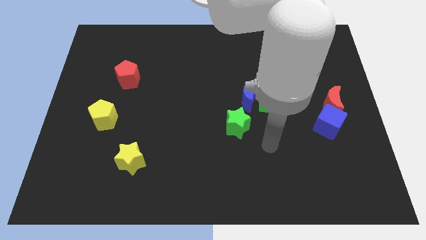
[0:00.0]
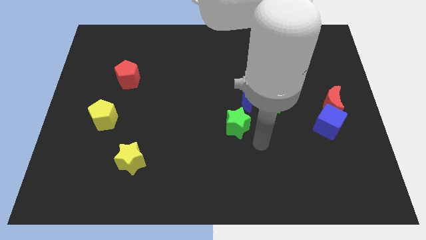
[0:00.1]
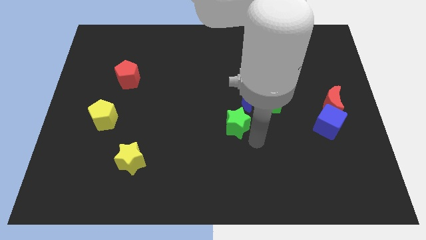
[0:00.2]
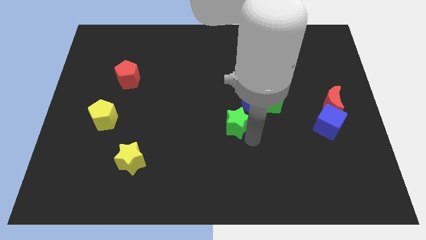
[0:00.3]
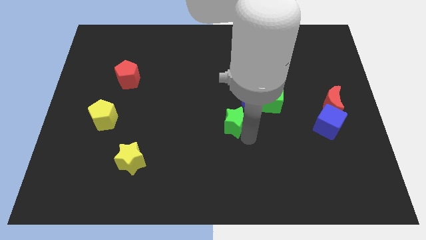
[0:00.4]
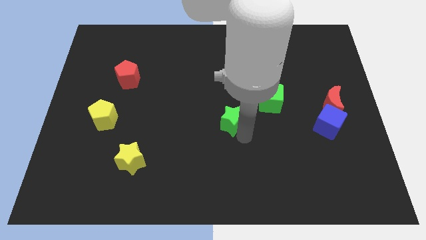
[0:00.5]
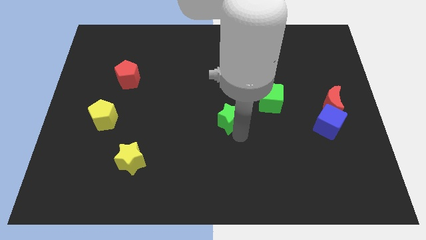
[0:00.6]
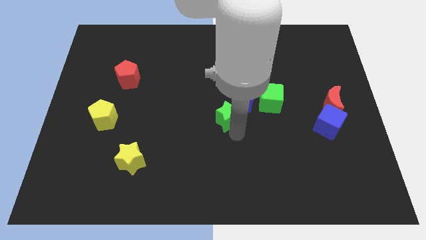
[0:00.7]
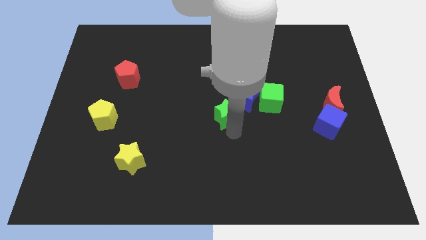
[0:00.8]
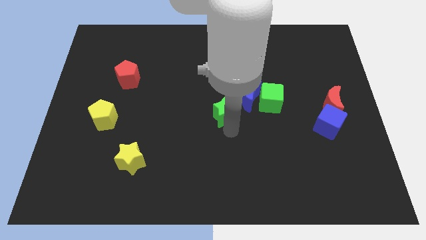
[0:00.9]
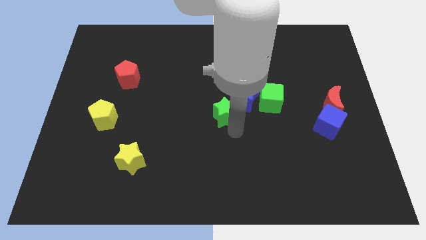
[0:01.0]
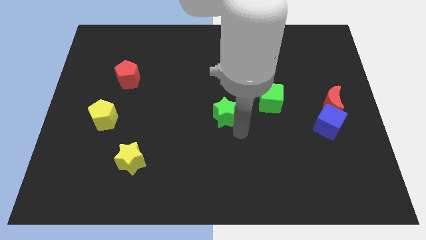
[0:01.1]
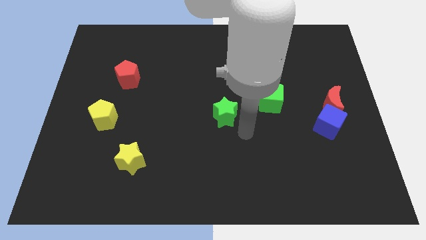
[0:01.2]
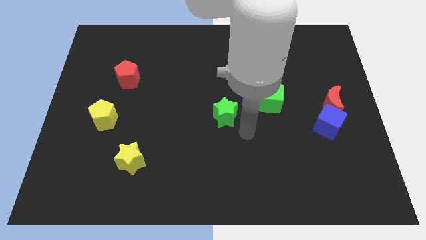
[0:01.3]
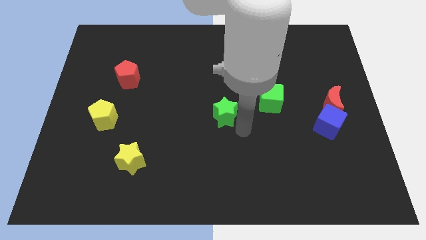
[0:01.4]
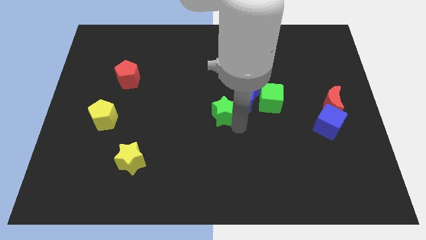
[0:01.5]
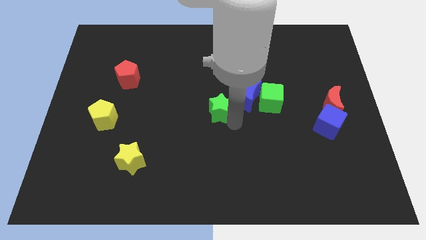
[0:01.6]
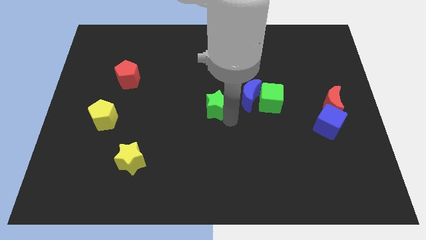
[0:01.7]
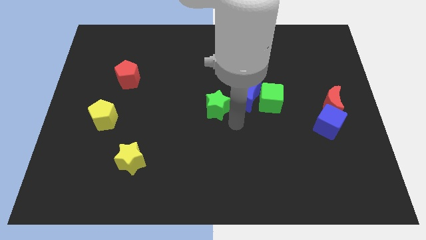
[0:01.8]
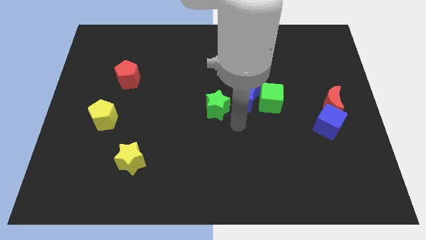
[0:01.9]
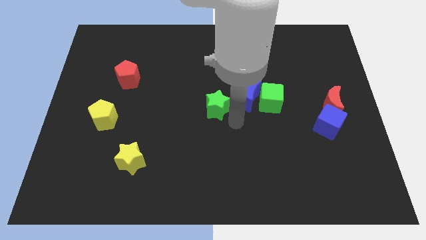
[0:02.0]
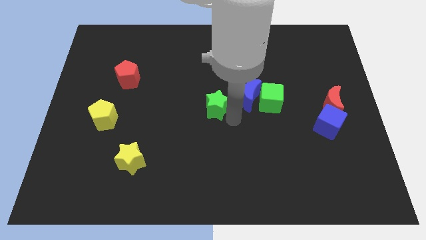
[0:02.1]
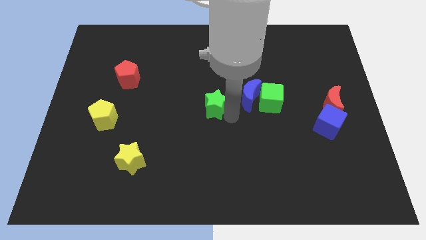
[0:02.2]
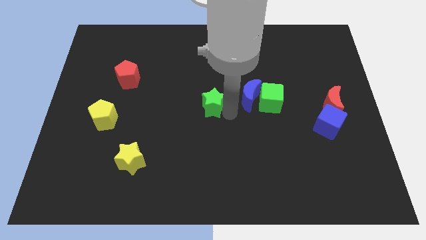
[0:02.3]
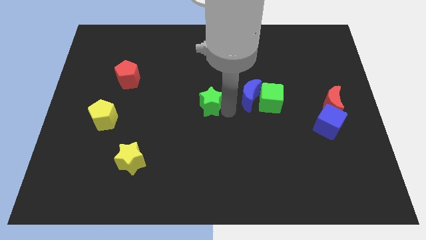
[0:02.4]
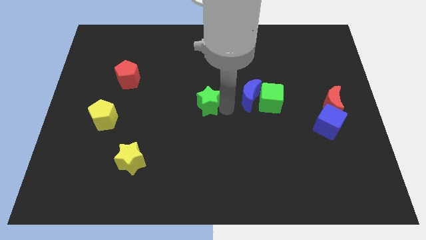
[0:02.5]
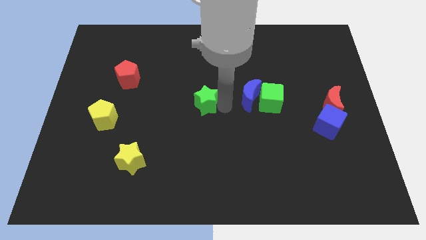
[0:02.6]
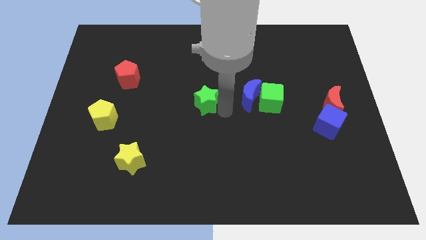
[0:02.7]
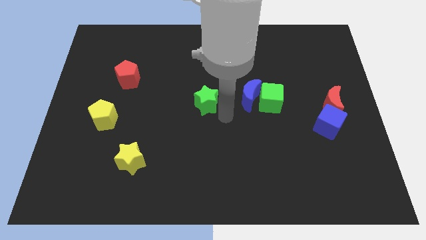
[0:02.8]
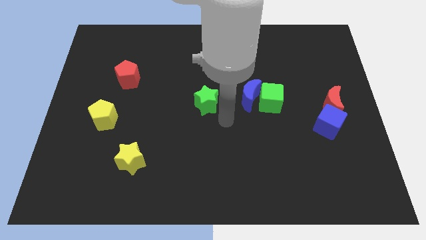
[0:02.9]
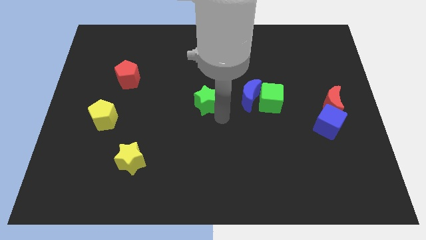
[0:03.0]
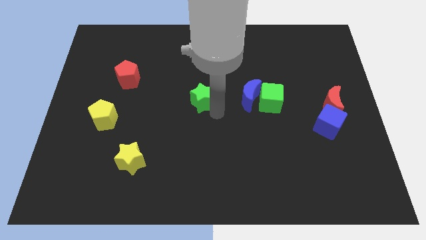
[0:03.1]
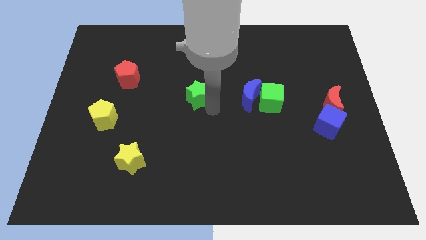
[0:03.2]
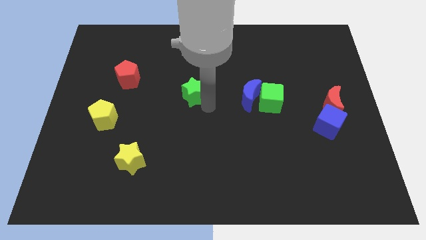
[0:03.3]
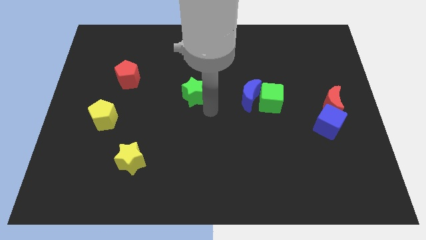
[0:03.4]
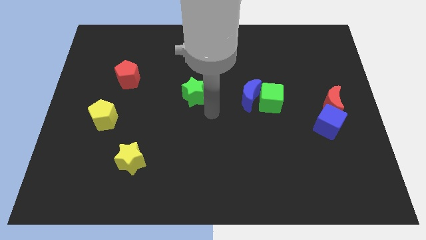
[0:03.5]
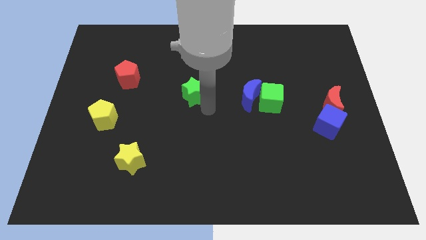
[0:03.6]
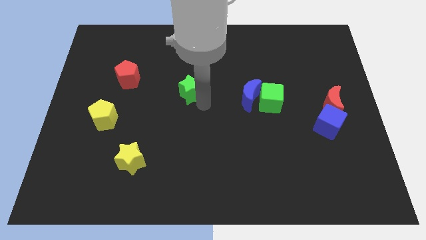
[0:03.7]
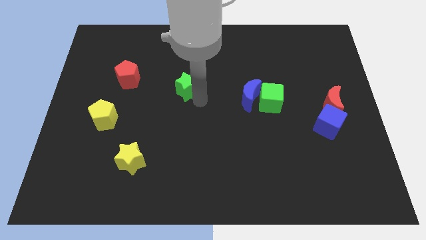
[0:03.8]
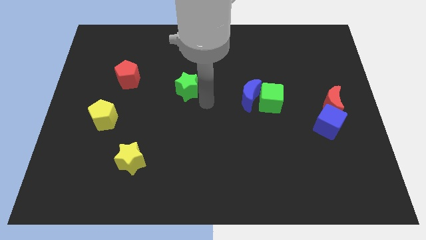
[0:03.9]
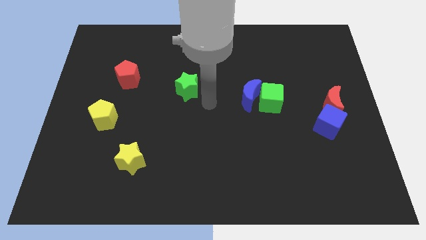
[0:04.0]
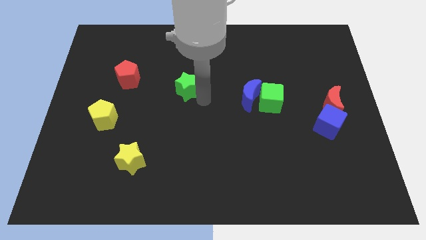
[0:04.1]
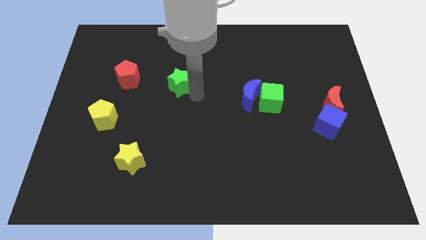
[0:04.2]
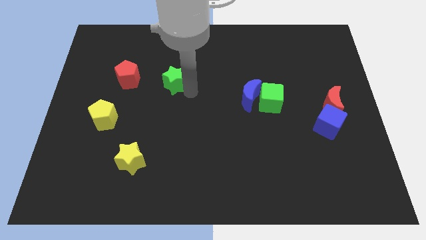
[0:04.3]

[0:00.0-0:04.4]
slide the green star upwards and to the left

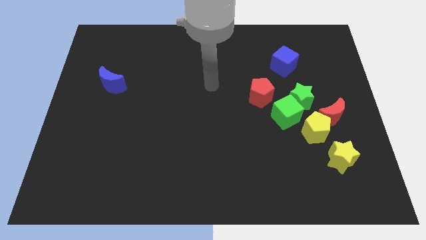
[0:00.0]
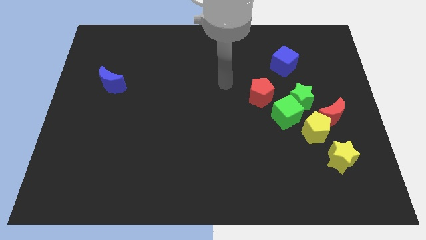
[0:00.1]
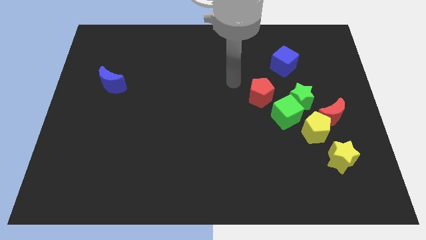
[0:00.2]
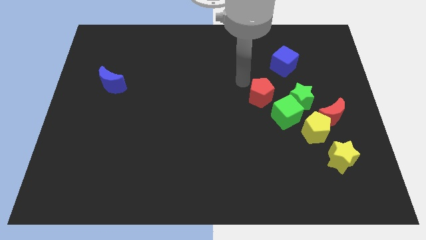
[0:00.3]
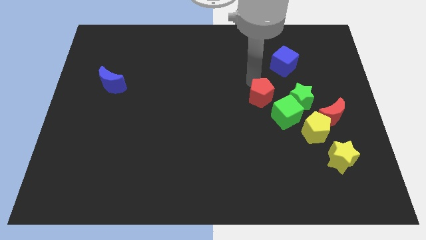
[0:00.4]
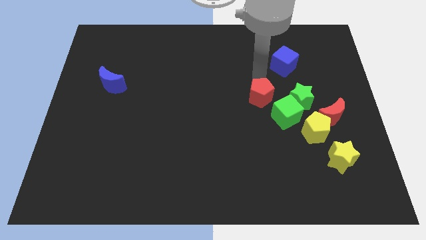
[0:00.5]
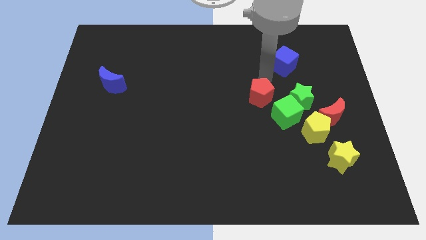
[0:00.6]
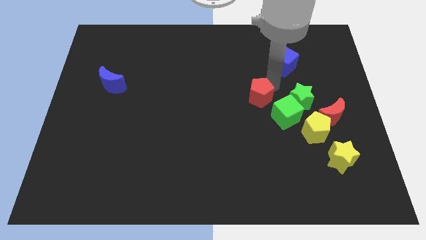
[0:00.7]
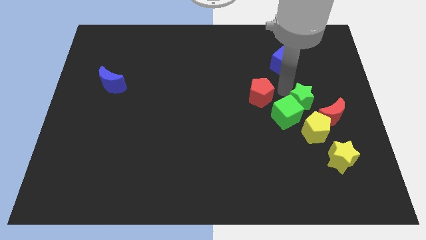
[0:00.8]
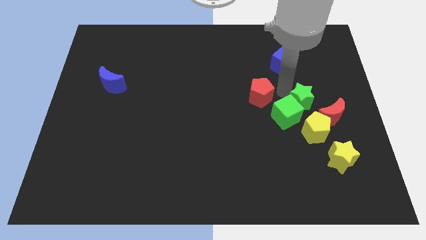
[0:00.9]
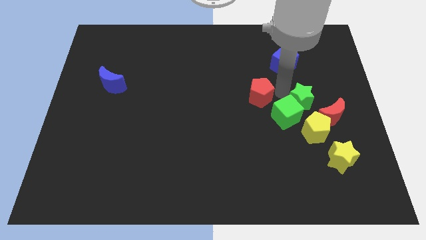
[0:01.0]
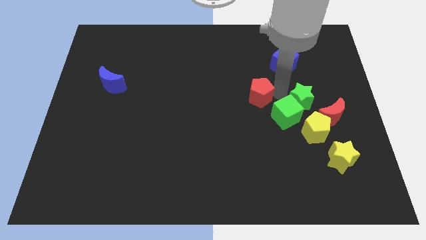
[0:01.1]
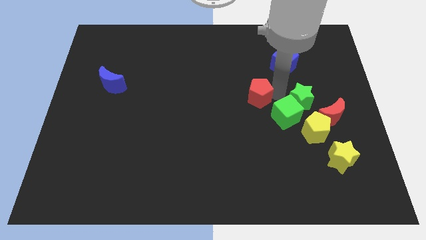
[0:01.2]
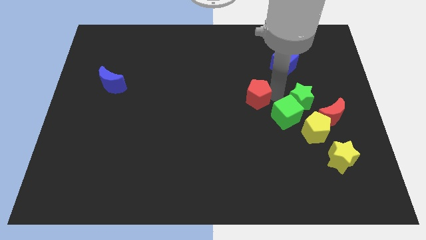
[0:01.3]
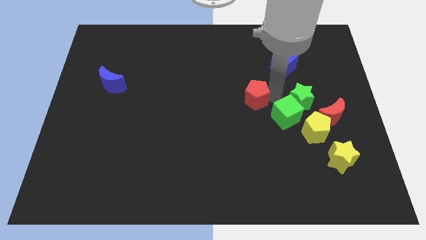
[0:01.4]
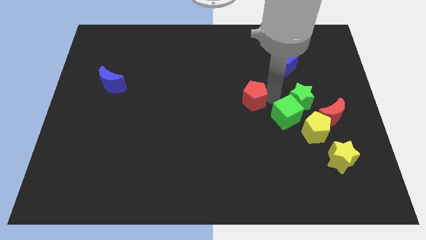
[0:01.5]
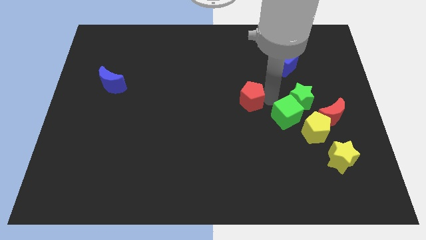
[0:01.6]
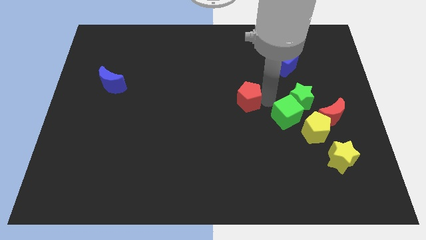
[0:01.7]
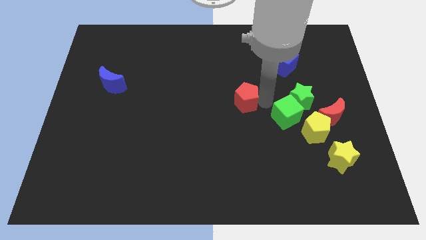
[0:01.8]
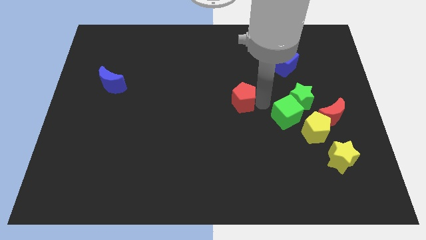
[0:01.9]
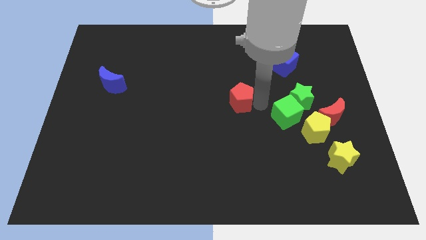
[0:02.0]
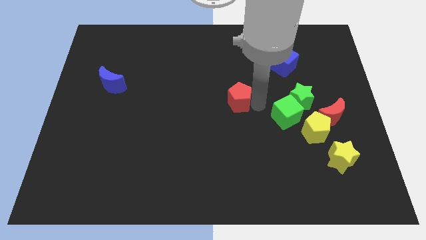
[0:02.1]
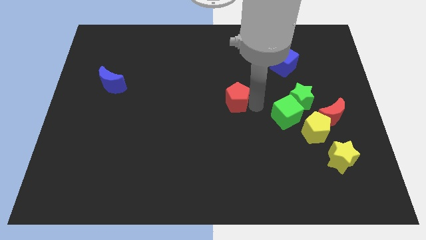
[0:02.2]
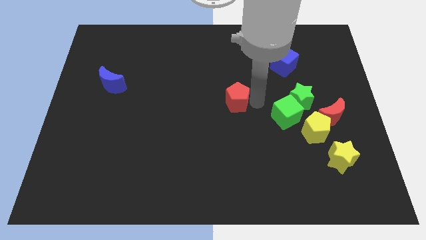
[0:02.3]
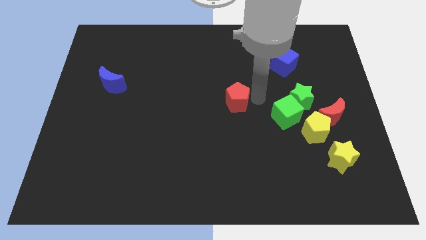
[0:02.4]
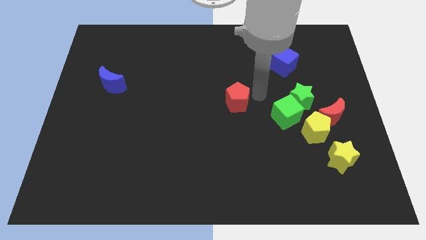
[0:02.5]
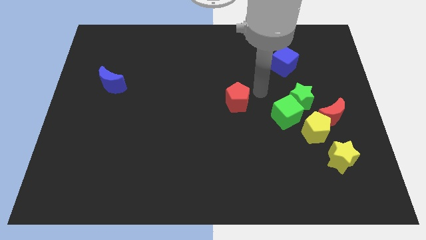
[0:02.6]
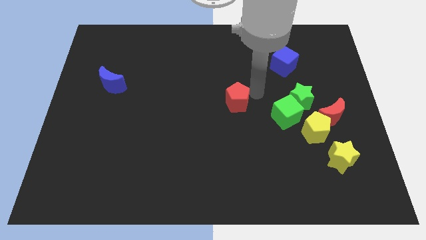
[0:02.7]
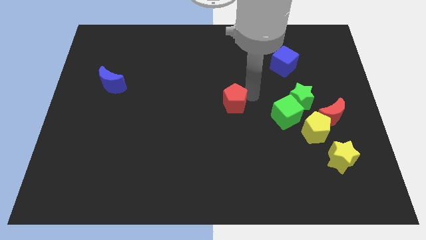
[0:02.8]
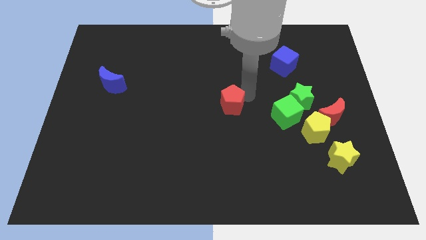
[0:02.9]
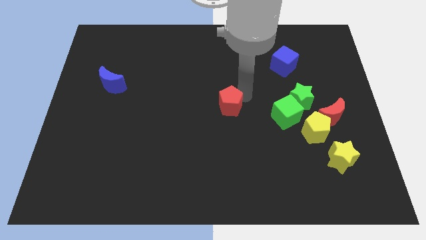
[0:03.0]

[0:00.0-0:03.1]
slightly move the red pentagon downwards and then left

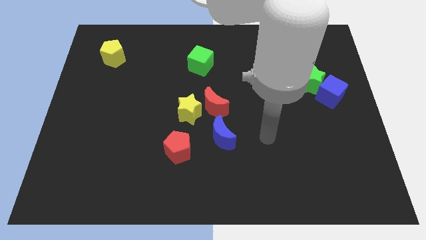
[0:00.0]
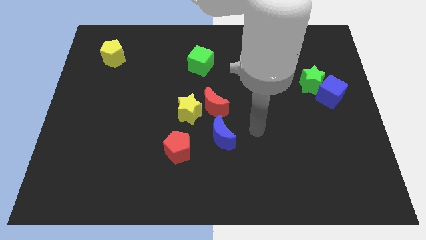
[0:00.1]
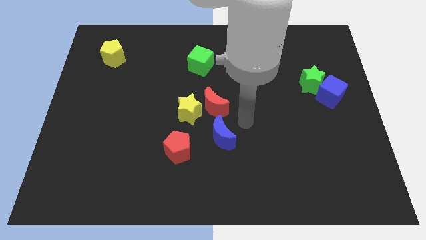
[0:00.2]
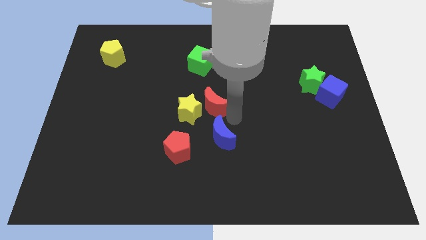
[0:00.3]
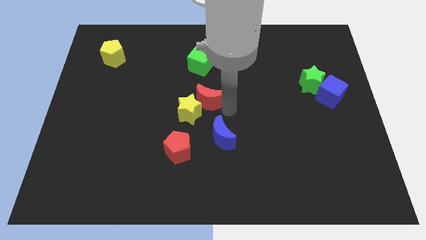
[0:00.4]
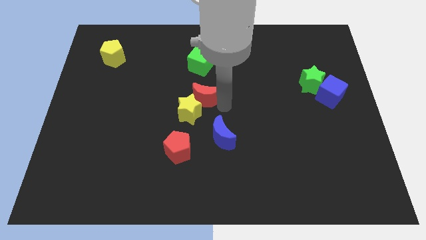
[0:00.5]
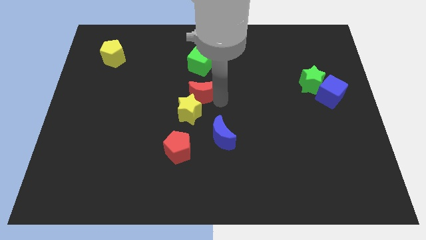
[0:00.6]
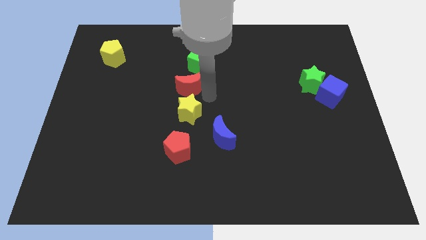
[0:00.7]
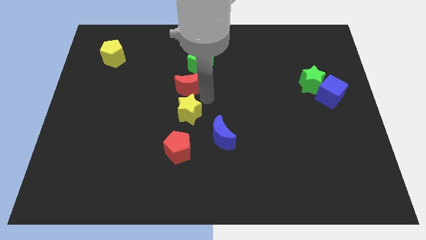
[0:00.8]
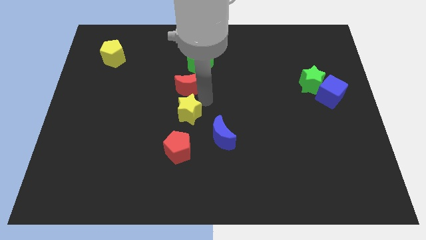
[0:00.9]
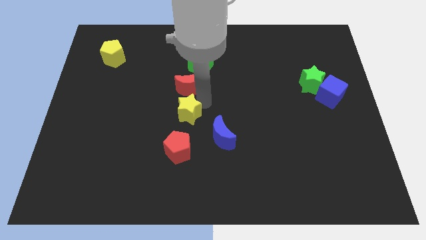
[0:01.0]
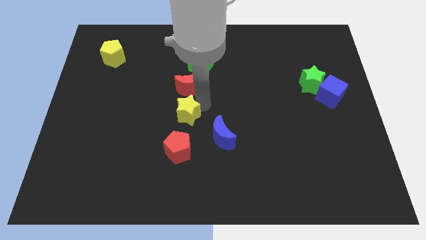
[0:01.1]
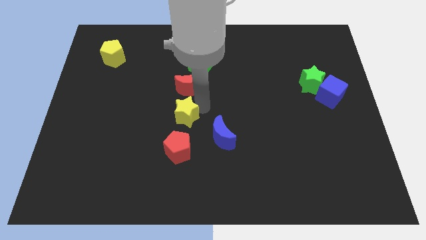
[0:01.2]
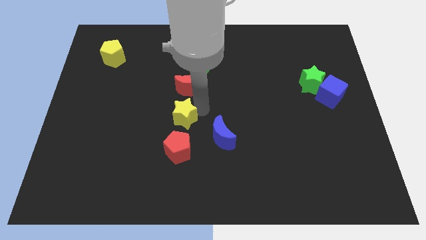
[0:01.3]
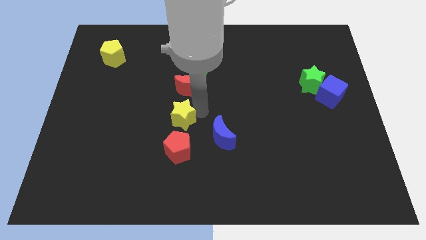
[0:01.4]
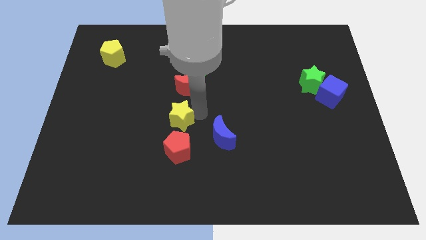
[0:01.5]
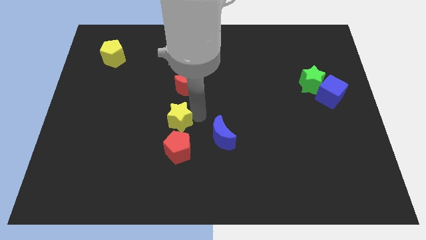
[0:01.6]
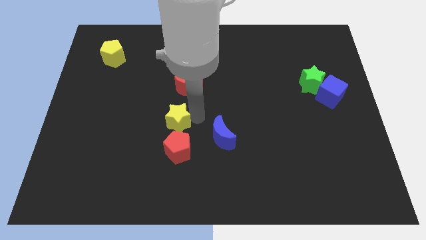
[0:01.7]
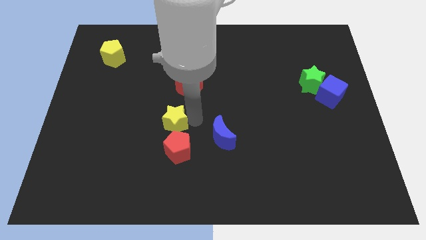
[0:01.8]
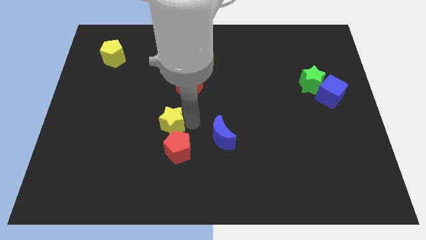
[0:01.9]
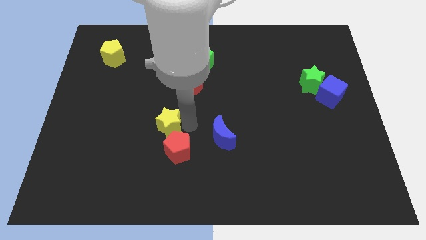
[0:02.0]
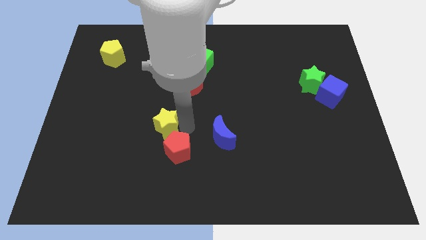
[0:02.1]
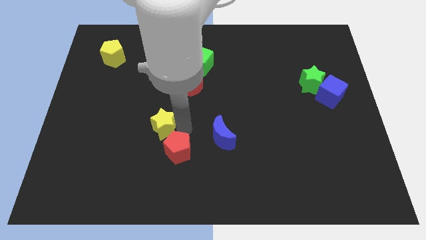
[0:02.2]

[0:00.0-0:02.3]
slightly push the yellow star diagonally downwards and to the left
